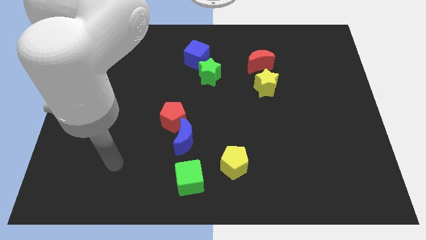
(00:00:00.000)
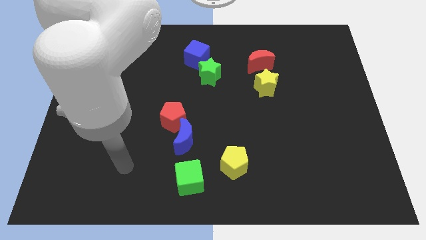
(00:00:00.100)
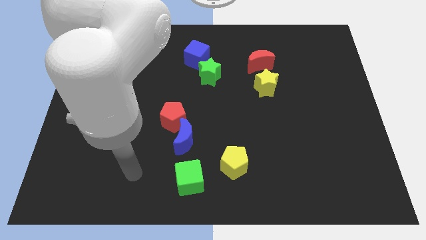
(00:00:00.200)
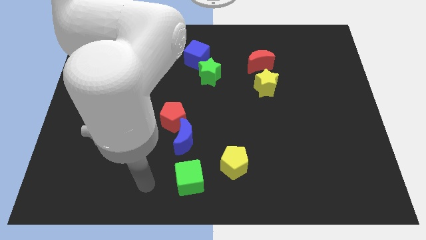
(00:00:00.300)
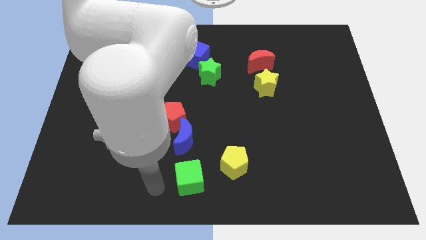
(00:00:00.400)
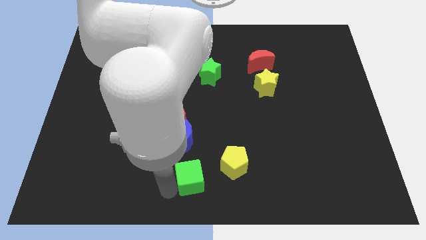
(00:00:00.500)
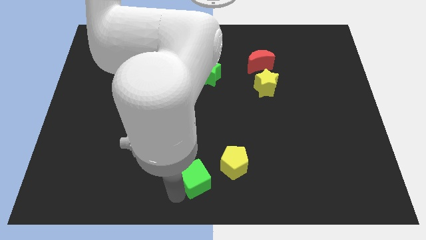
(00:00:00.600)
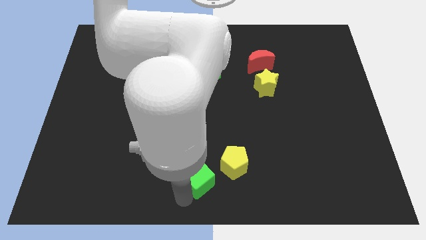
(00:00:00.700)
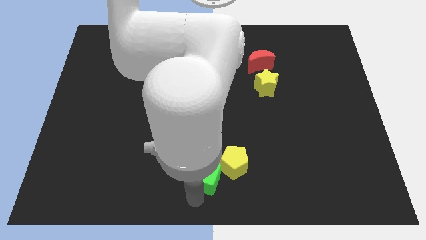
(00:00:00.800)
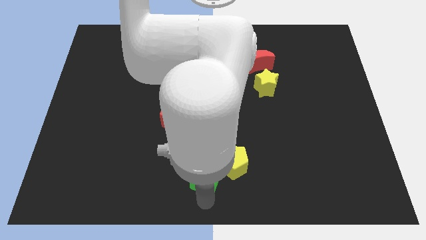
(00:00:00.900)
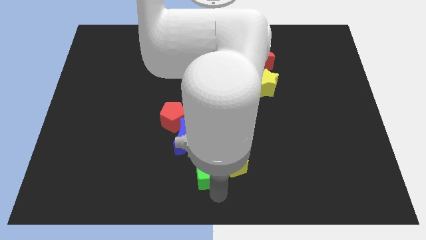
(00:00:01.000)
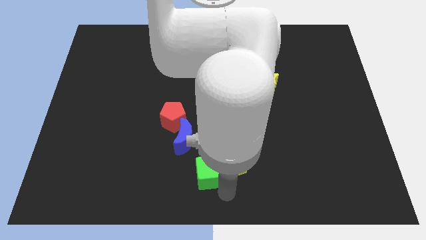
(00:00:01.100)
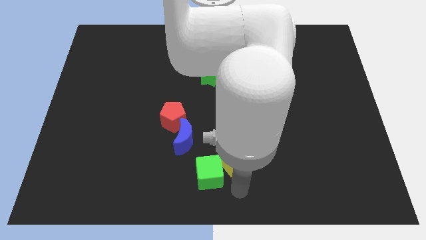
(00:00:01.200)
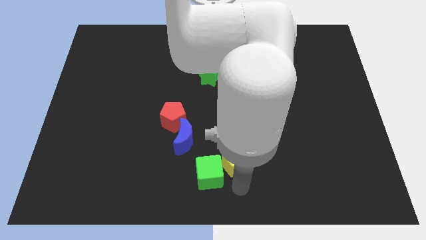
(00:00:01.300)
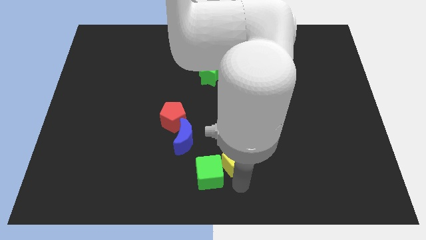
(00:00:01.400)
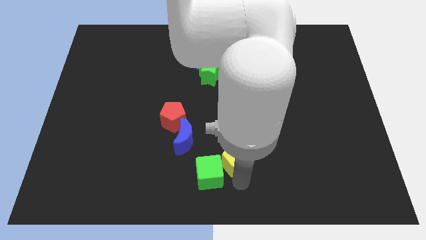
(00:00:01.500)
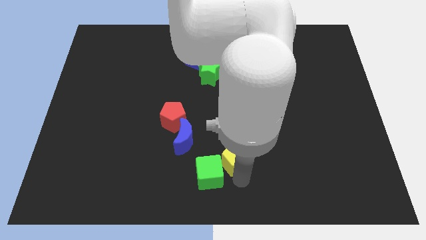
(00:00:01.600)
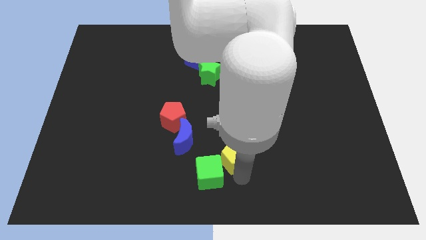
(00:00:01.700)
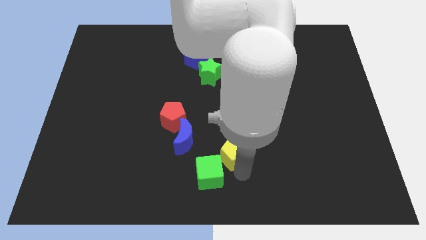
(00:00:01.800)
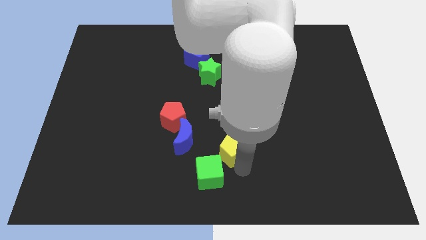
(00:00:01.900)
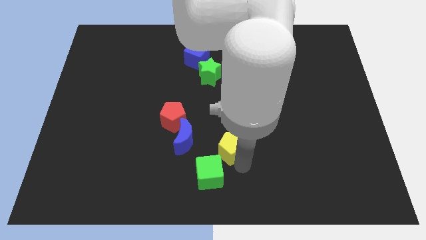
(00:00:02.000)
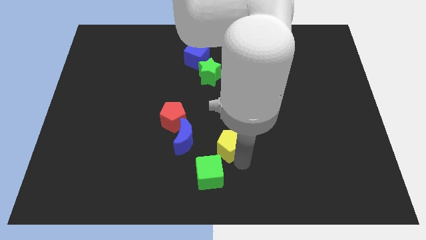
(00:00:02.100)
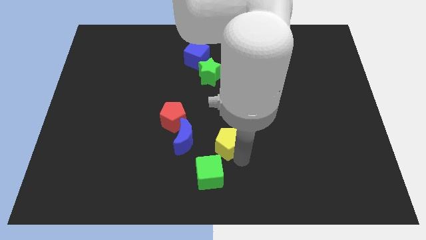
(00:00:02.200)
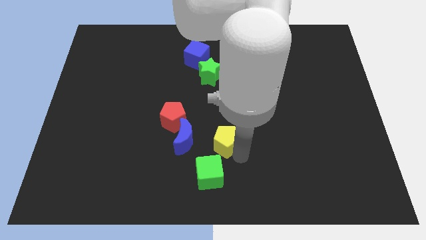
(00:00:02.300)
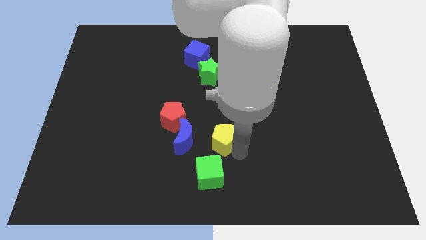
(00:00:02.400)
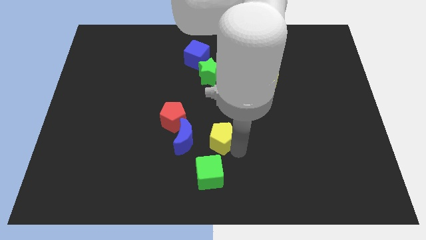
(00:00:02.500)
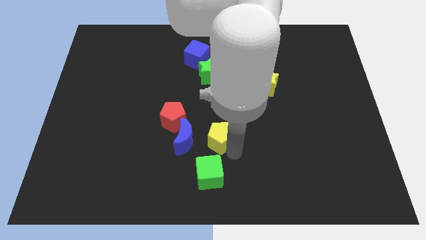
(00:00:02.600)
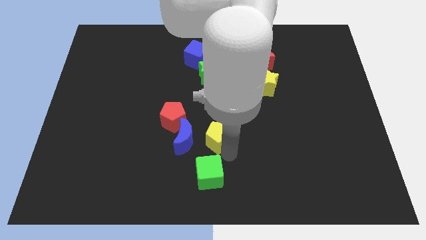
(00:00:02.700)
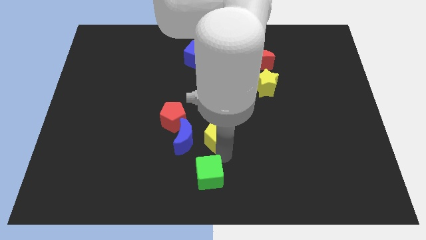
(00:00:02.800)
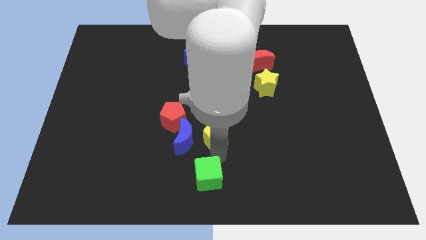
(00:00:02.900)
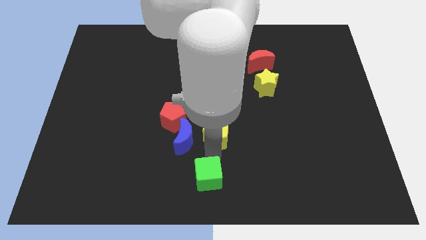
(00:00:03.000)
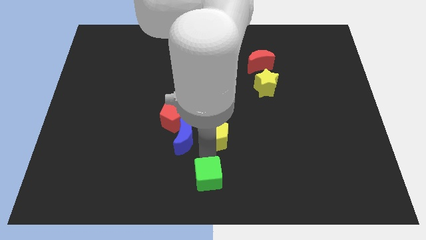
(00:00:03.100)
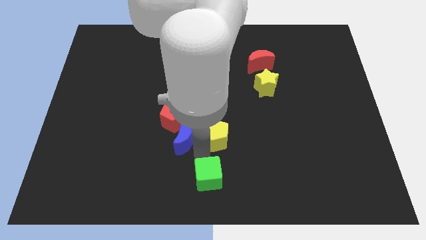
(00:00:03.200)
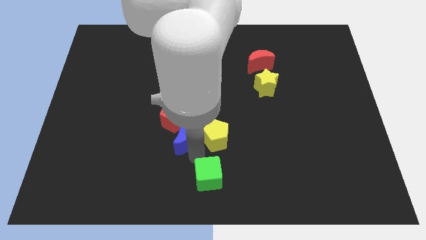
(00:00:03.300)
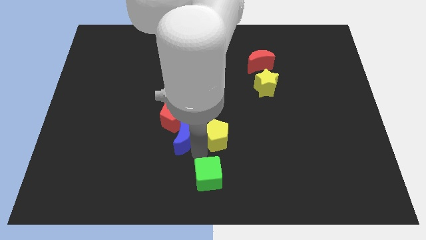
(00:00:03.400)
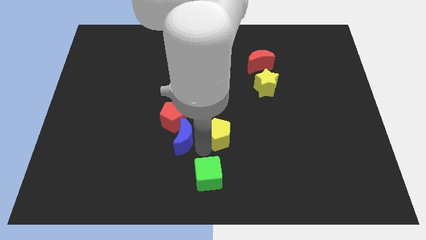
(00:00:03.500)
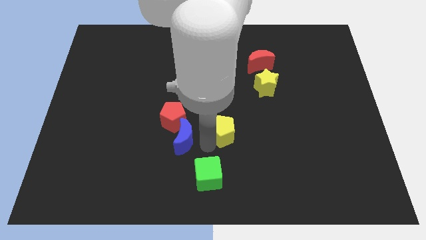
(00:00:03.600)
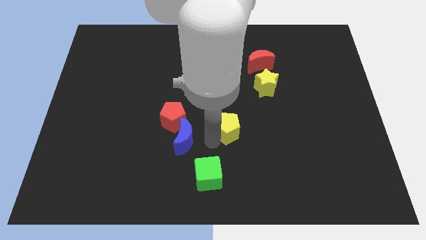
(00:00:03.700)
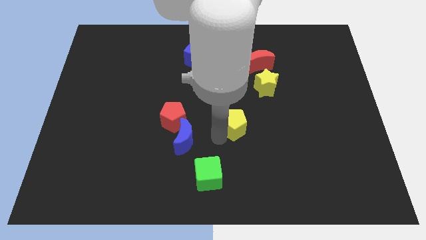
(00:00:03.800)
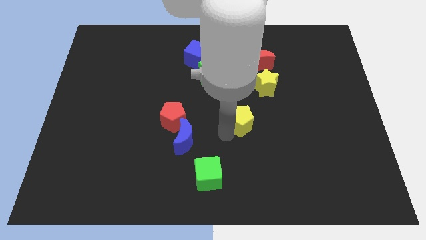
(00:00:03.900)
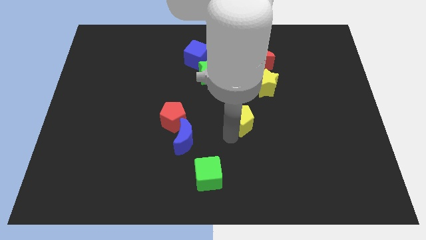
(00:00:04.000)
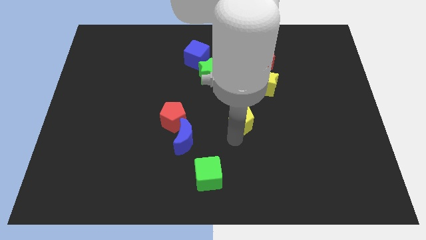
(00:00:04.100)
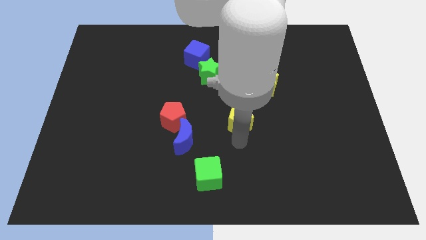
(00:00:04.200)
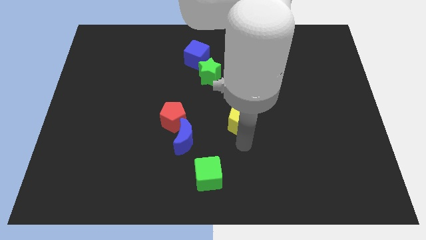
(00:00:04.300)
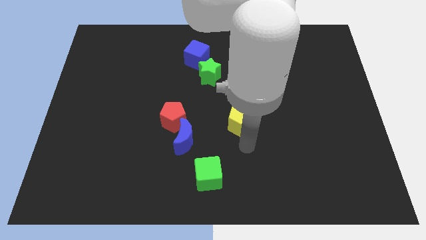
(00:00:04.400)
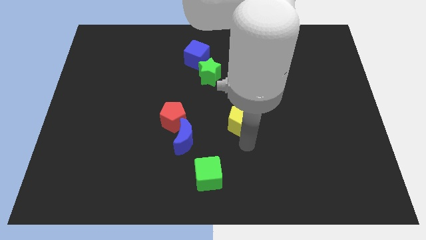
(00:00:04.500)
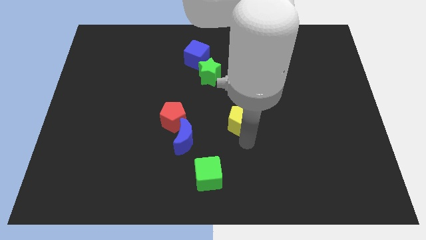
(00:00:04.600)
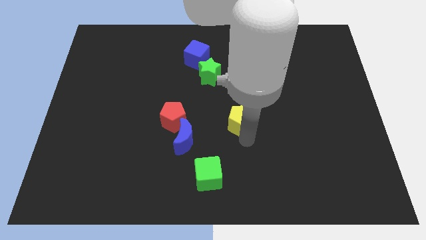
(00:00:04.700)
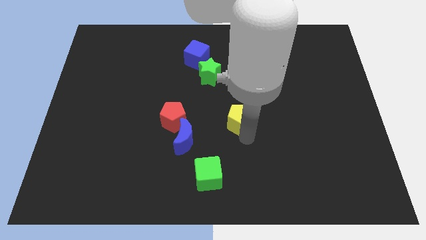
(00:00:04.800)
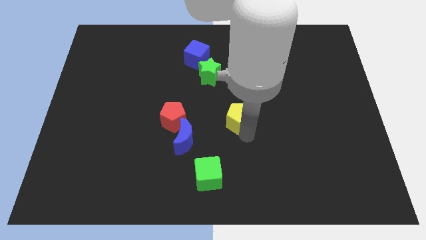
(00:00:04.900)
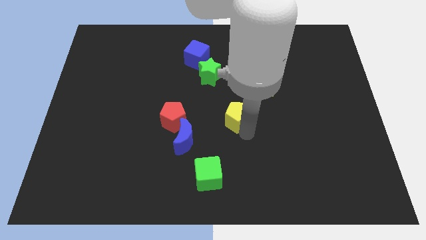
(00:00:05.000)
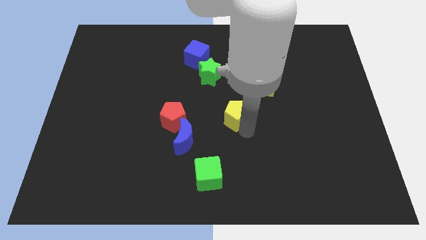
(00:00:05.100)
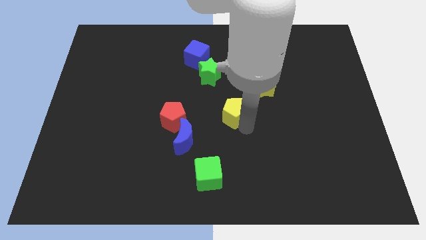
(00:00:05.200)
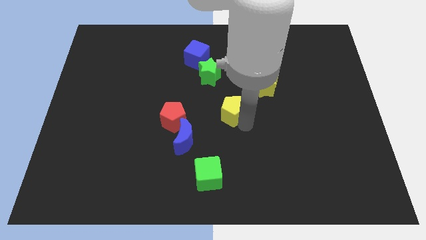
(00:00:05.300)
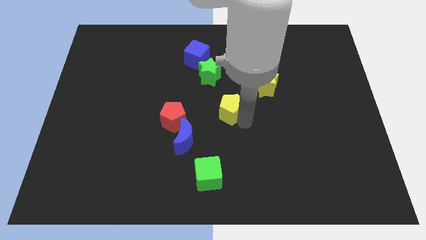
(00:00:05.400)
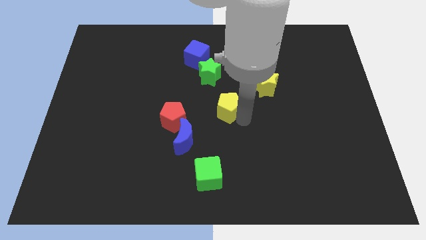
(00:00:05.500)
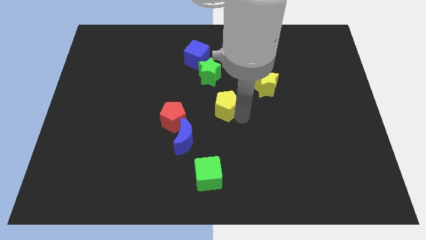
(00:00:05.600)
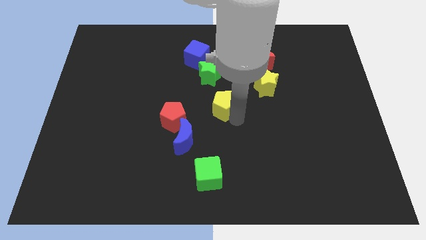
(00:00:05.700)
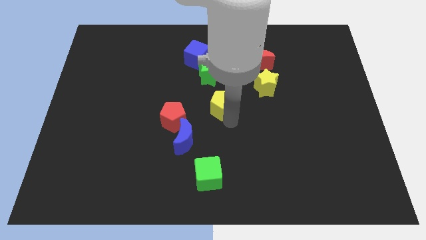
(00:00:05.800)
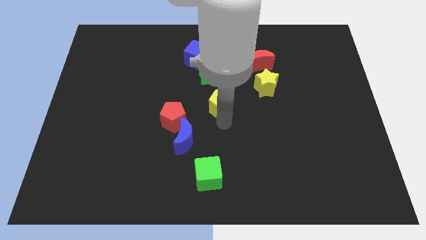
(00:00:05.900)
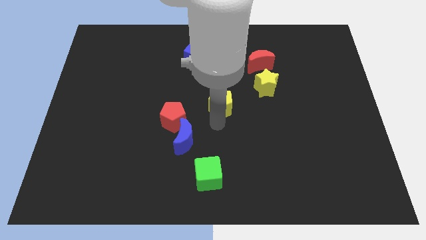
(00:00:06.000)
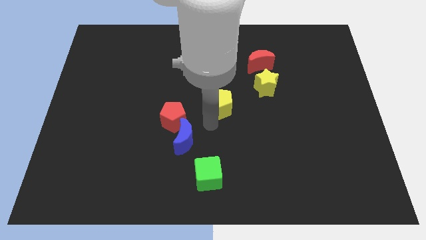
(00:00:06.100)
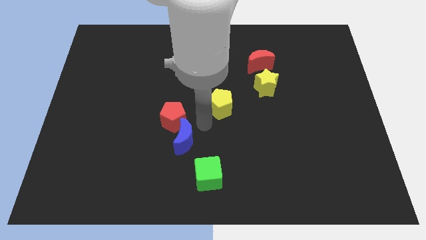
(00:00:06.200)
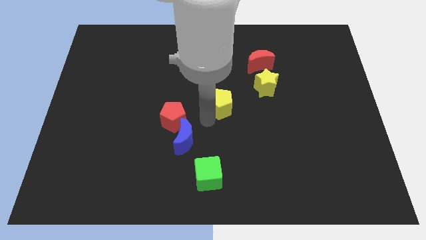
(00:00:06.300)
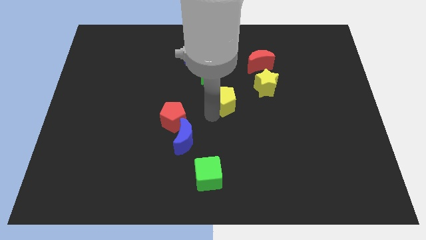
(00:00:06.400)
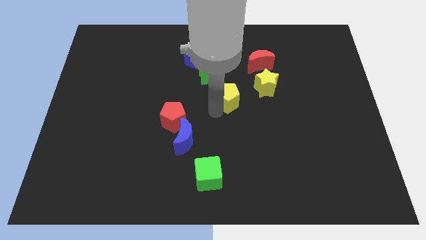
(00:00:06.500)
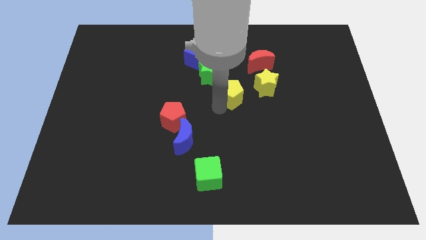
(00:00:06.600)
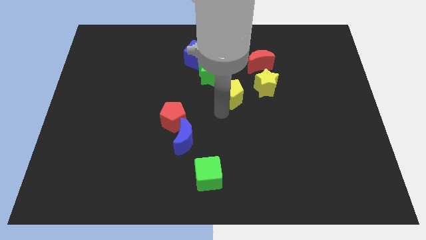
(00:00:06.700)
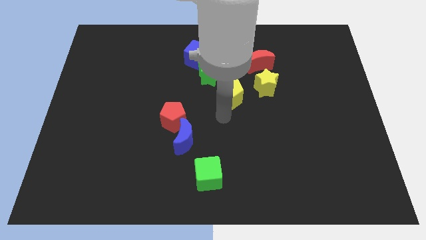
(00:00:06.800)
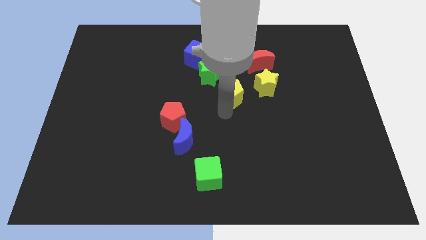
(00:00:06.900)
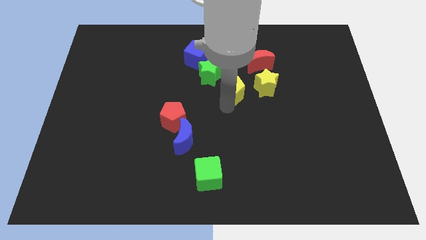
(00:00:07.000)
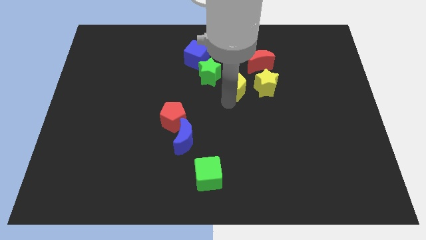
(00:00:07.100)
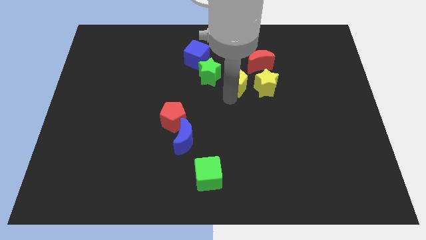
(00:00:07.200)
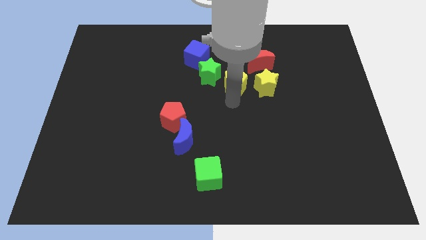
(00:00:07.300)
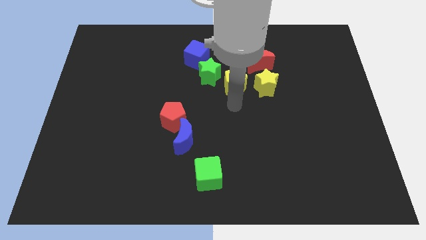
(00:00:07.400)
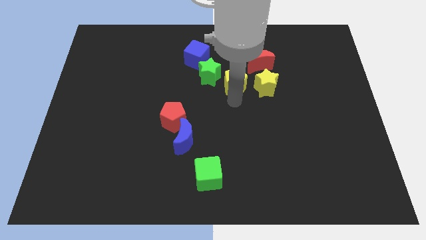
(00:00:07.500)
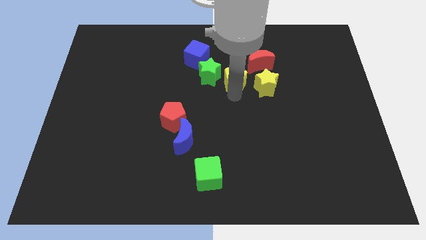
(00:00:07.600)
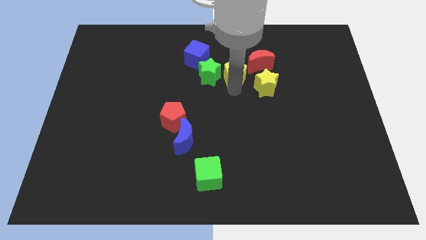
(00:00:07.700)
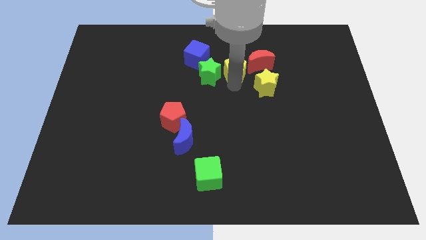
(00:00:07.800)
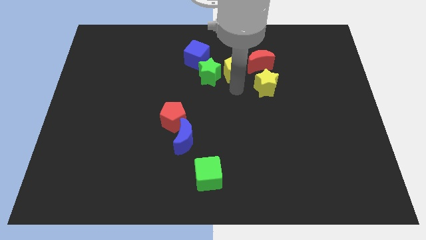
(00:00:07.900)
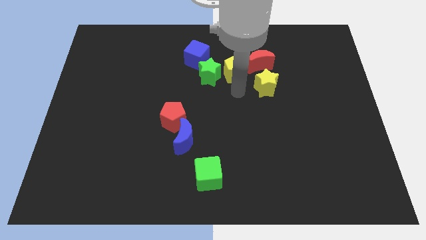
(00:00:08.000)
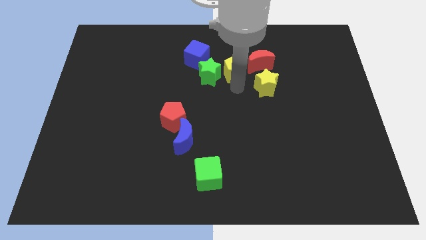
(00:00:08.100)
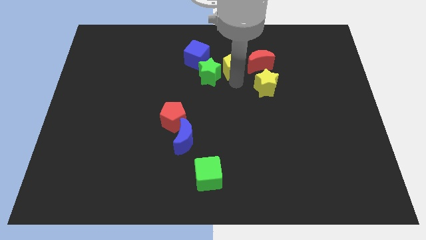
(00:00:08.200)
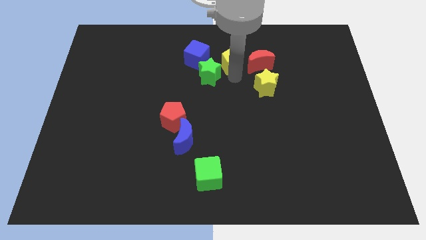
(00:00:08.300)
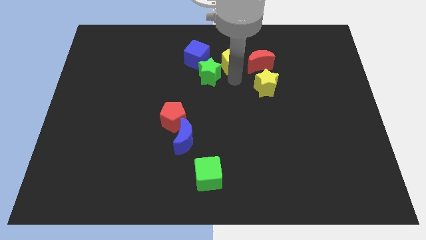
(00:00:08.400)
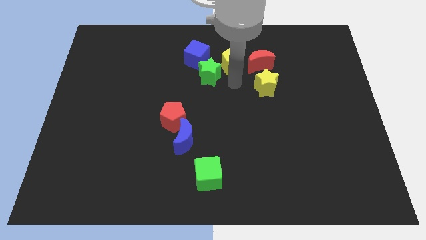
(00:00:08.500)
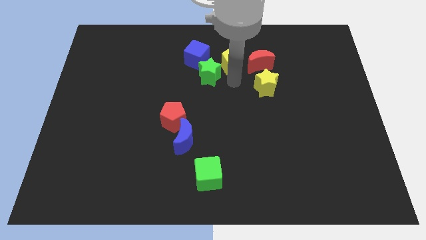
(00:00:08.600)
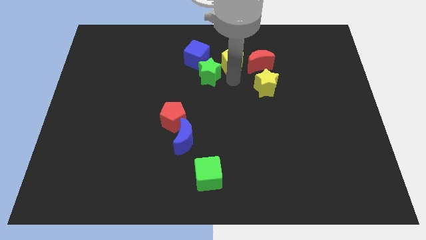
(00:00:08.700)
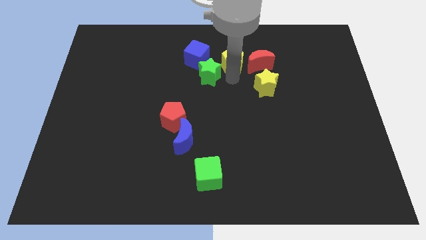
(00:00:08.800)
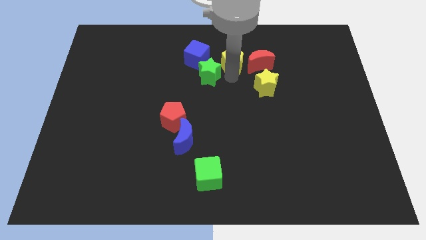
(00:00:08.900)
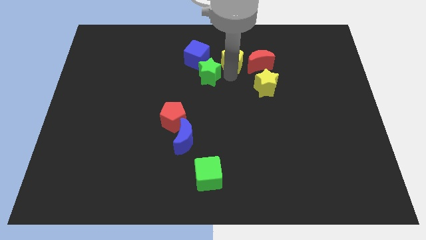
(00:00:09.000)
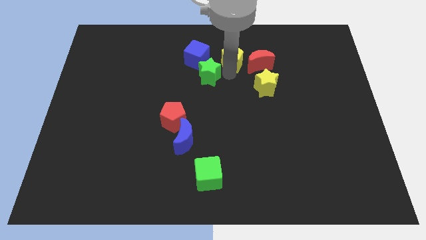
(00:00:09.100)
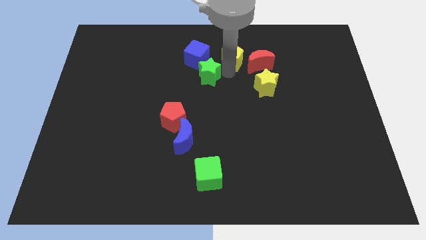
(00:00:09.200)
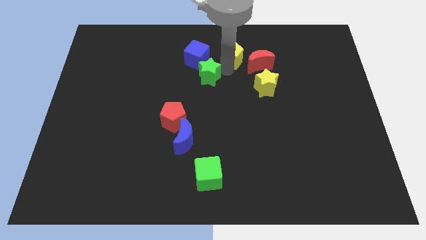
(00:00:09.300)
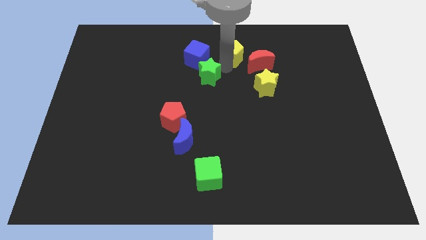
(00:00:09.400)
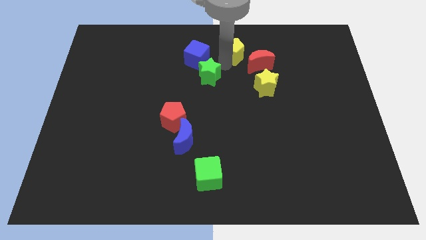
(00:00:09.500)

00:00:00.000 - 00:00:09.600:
put the yellow pentagon to the towards your base
